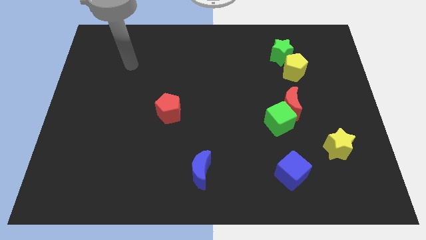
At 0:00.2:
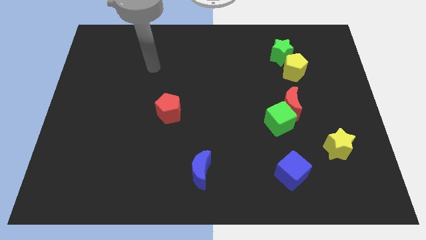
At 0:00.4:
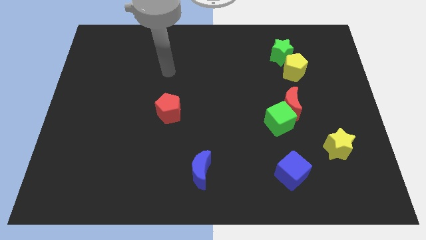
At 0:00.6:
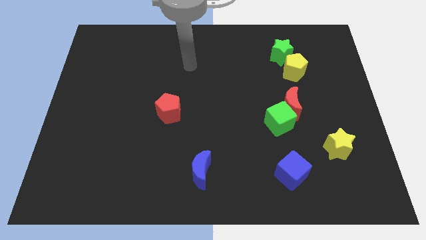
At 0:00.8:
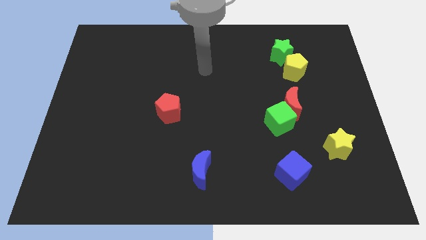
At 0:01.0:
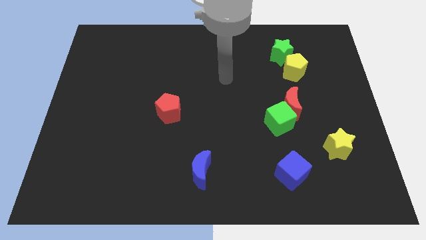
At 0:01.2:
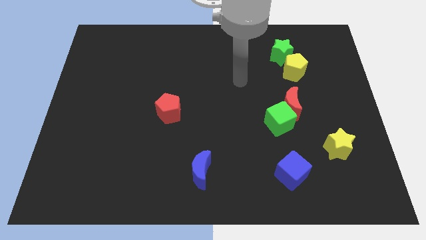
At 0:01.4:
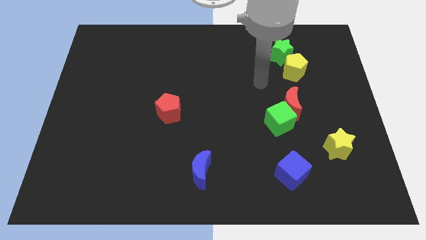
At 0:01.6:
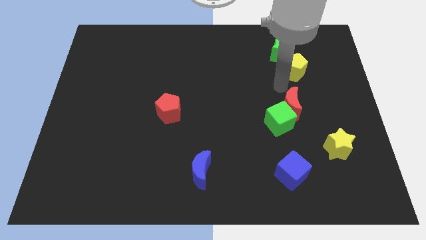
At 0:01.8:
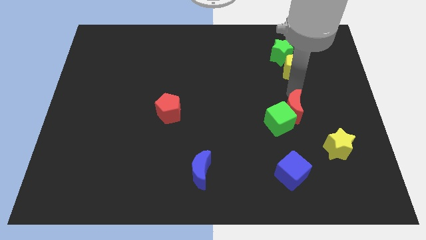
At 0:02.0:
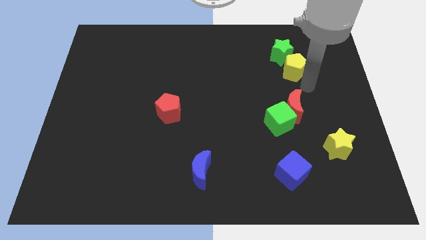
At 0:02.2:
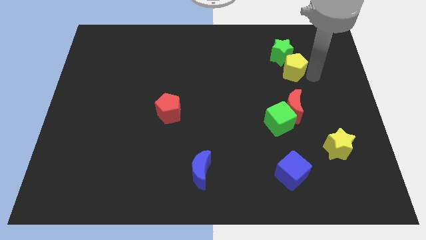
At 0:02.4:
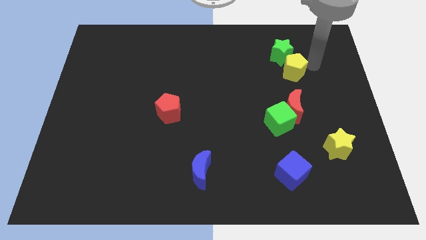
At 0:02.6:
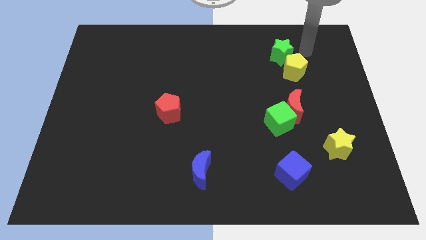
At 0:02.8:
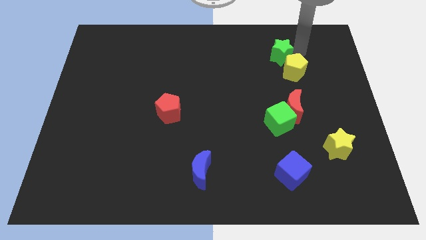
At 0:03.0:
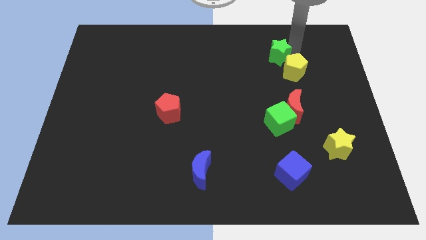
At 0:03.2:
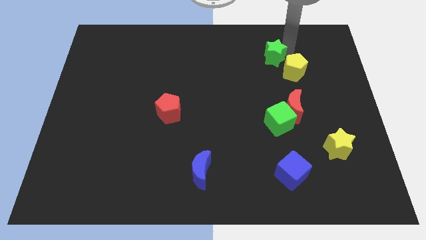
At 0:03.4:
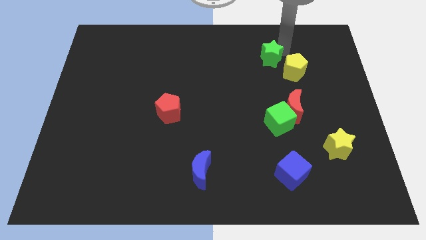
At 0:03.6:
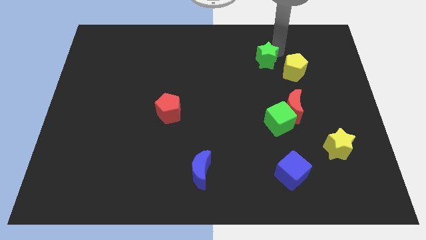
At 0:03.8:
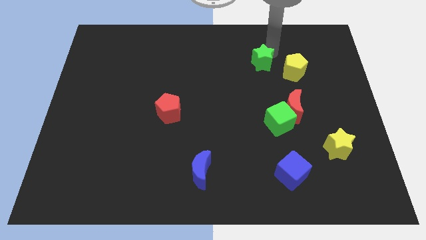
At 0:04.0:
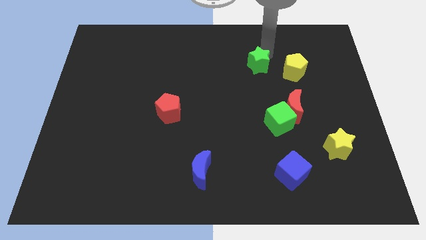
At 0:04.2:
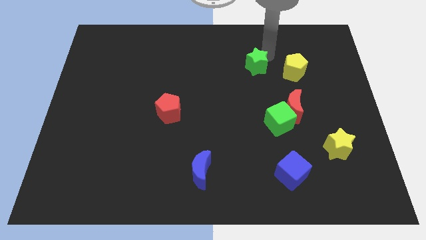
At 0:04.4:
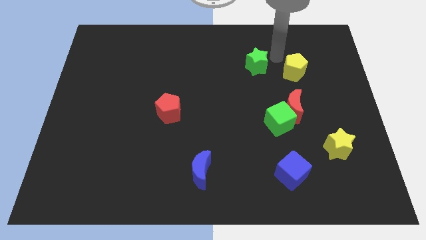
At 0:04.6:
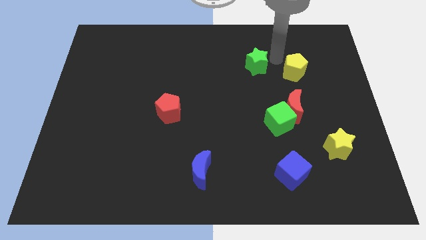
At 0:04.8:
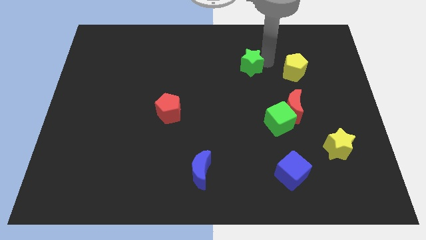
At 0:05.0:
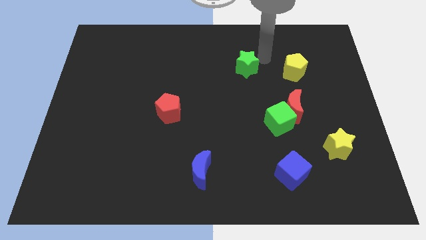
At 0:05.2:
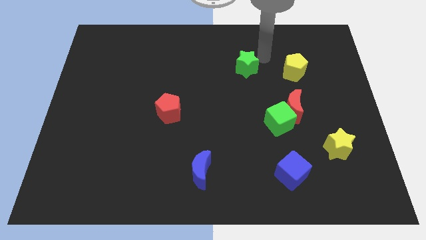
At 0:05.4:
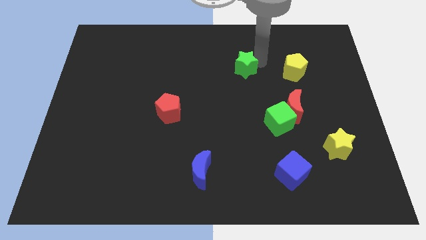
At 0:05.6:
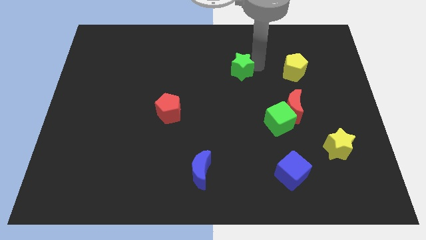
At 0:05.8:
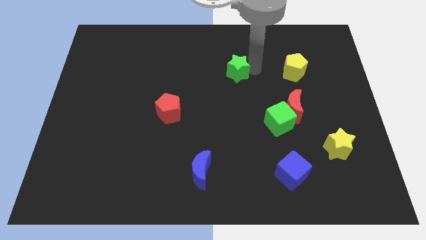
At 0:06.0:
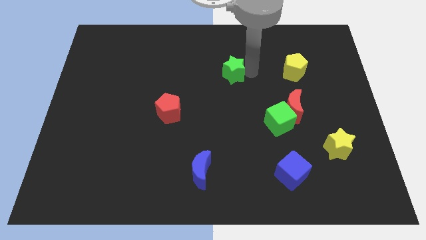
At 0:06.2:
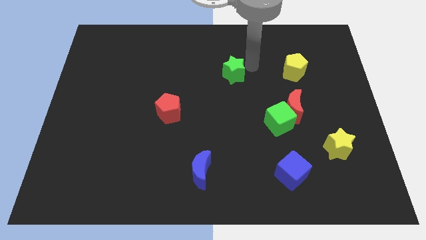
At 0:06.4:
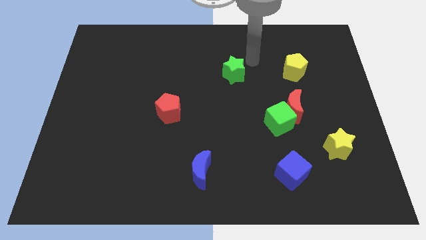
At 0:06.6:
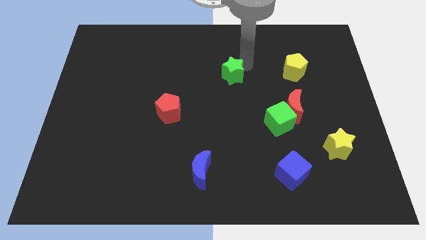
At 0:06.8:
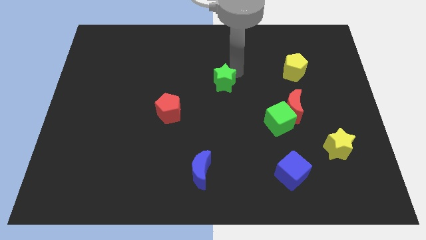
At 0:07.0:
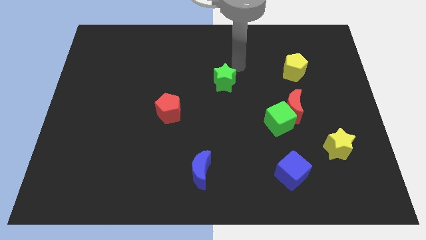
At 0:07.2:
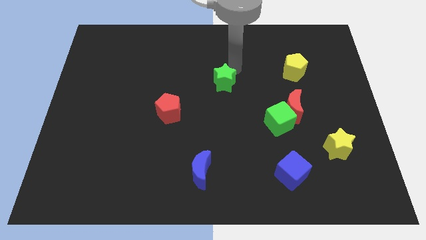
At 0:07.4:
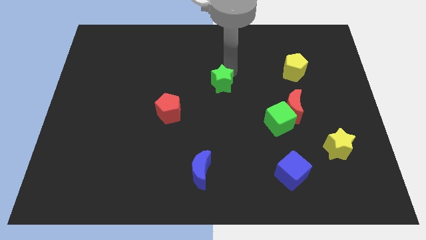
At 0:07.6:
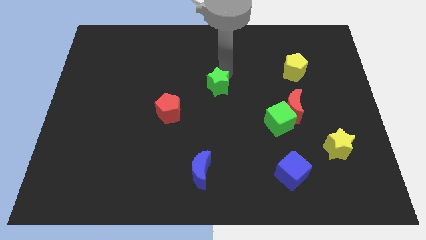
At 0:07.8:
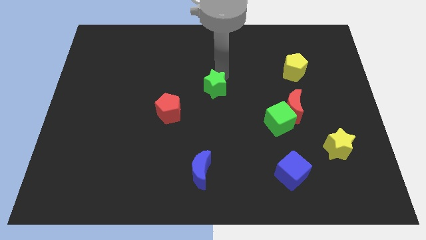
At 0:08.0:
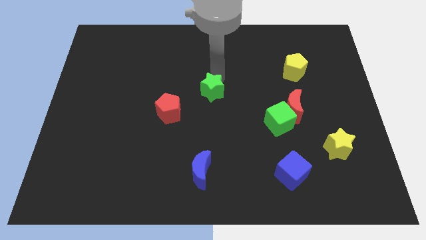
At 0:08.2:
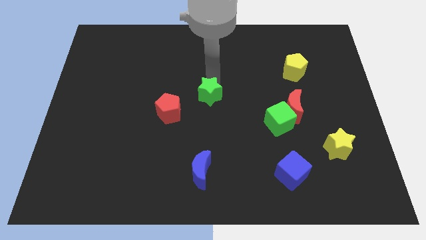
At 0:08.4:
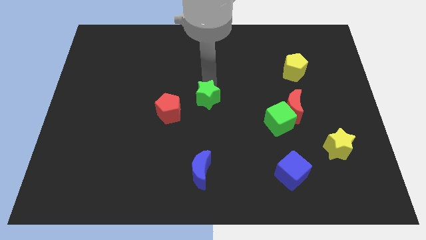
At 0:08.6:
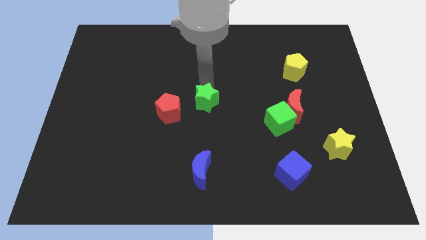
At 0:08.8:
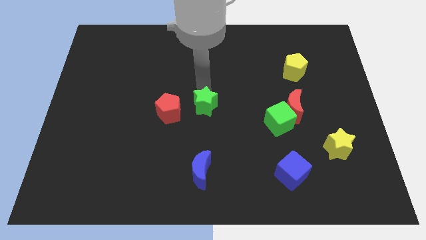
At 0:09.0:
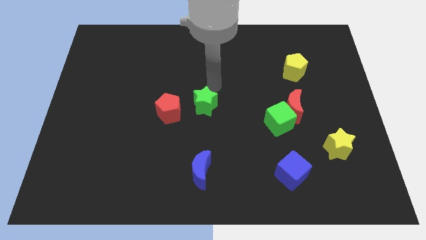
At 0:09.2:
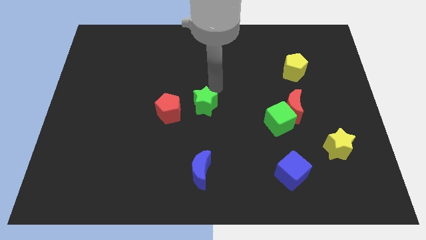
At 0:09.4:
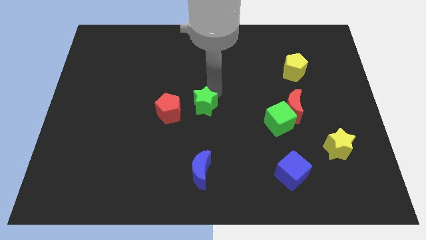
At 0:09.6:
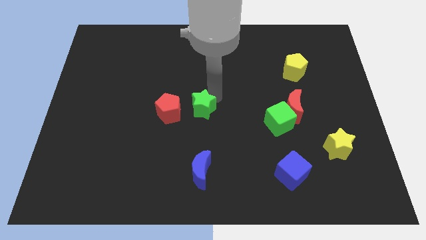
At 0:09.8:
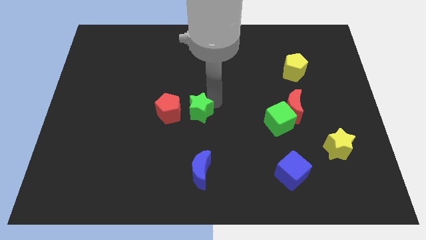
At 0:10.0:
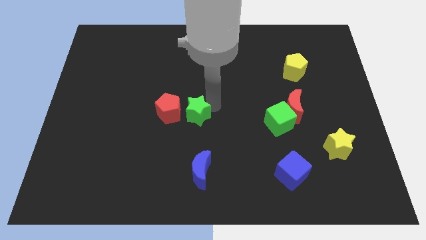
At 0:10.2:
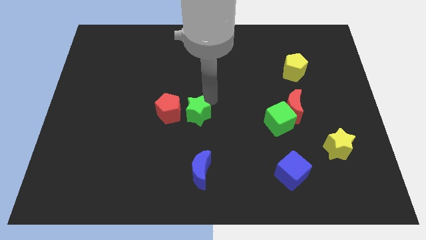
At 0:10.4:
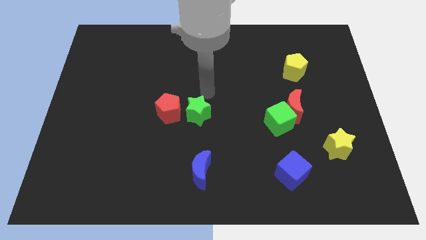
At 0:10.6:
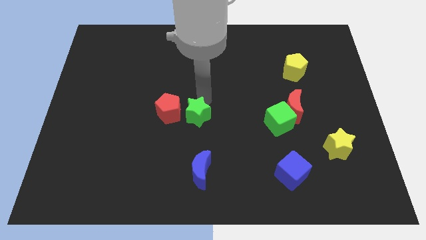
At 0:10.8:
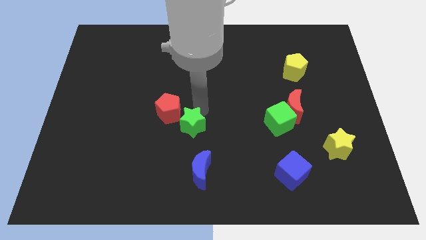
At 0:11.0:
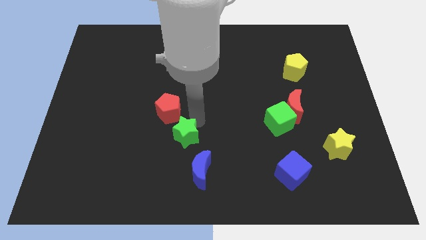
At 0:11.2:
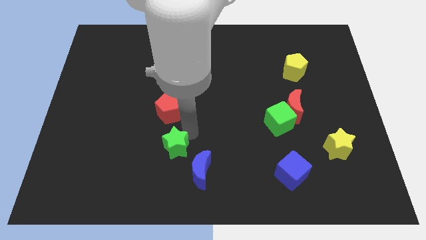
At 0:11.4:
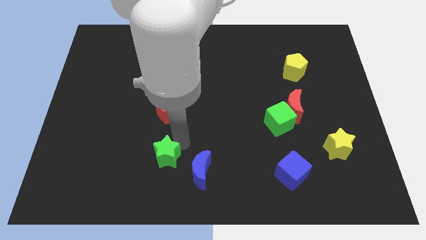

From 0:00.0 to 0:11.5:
put the green star left of the blue moon

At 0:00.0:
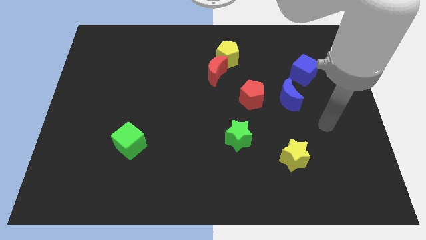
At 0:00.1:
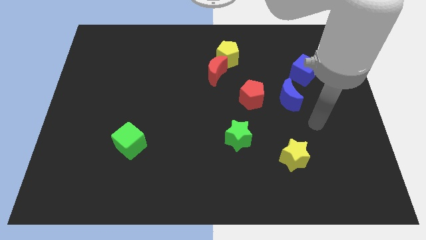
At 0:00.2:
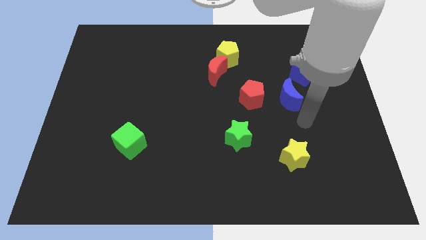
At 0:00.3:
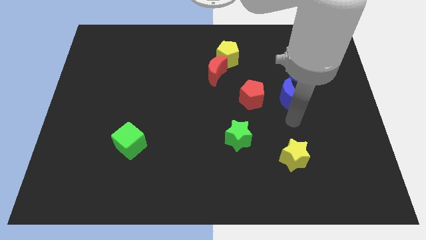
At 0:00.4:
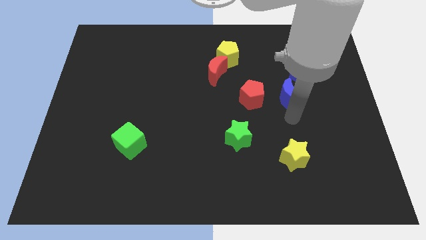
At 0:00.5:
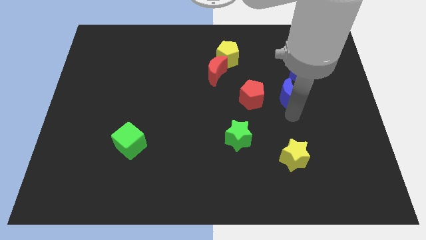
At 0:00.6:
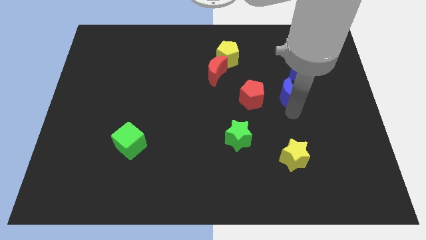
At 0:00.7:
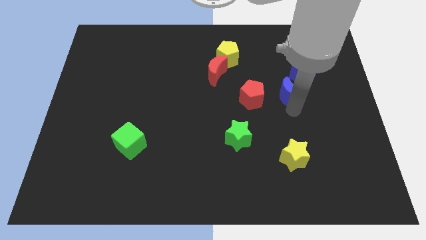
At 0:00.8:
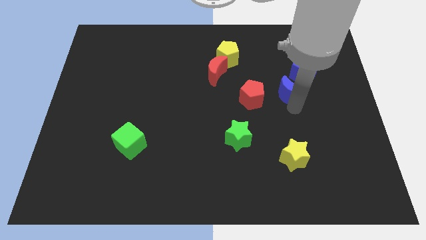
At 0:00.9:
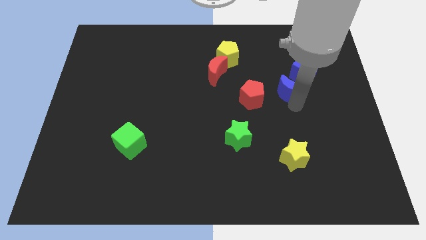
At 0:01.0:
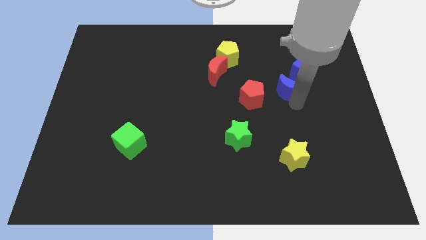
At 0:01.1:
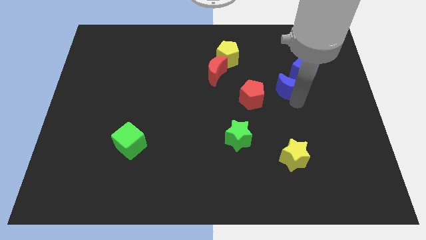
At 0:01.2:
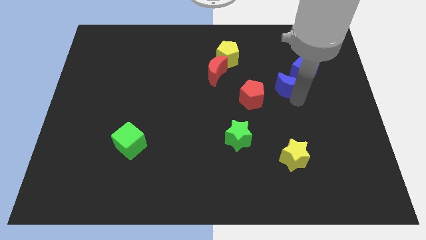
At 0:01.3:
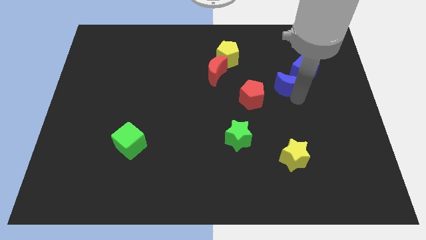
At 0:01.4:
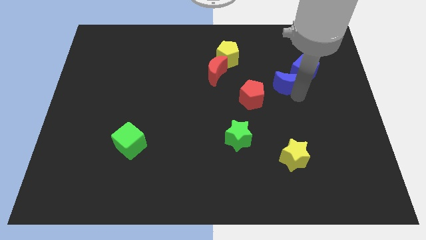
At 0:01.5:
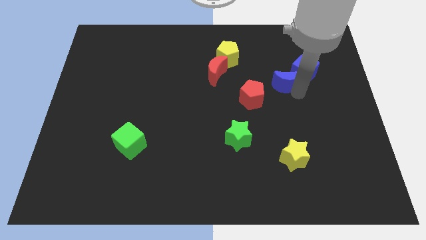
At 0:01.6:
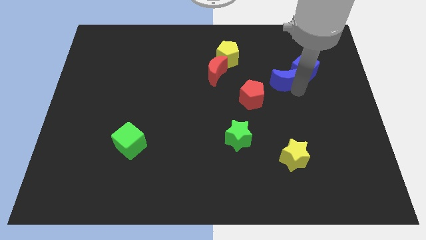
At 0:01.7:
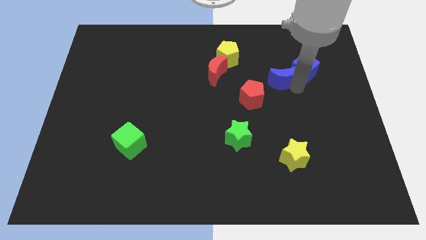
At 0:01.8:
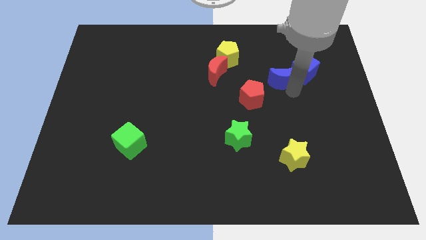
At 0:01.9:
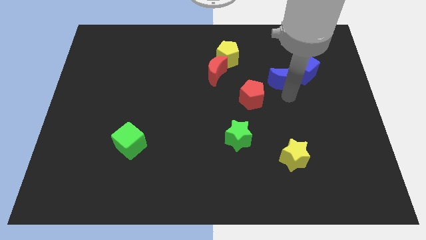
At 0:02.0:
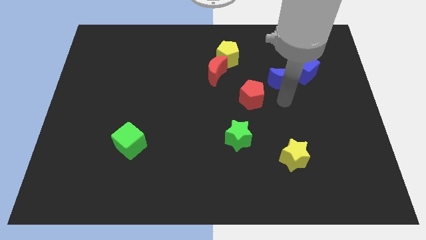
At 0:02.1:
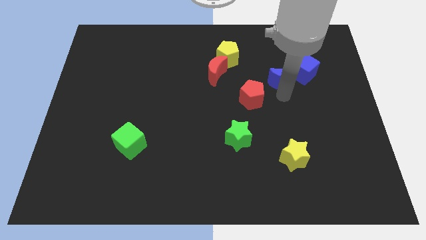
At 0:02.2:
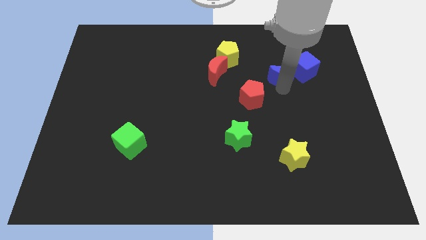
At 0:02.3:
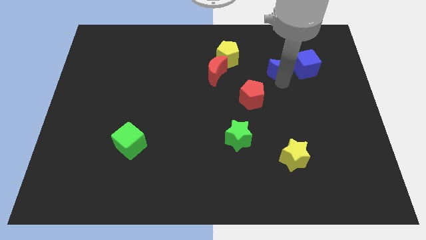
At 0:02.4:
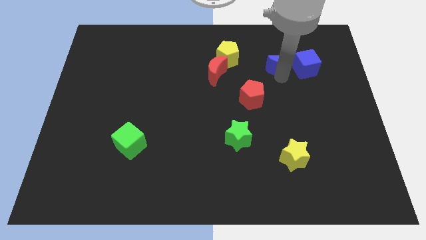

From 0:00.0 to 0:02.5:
push the blue moon to the top left of the blue cube
